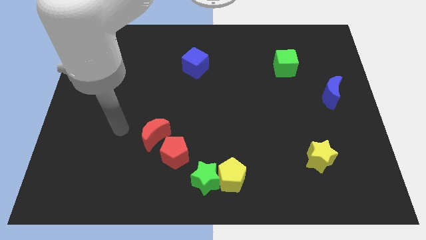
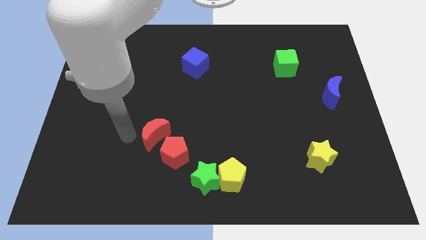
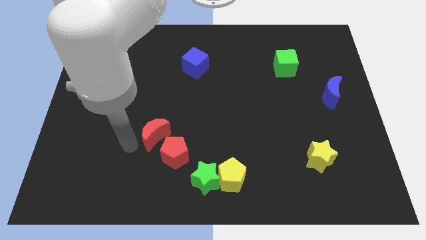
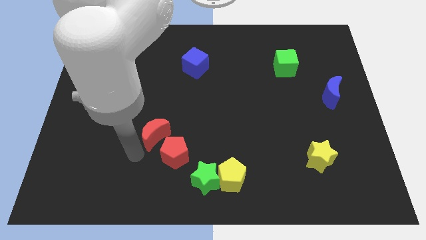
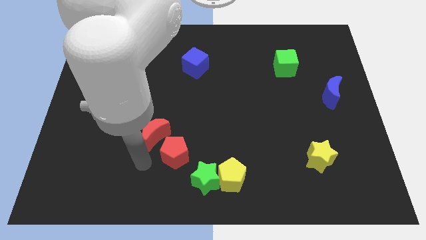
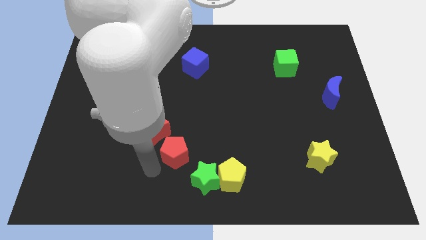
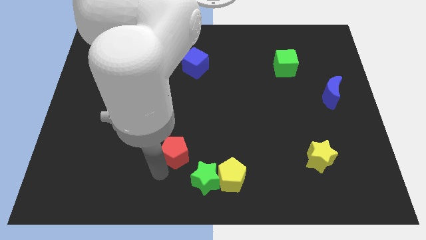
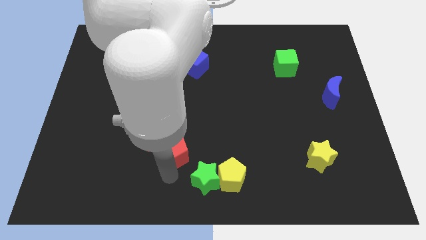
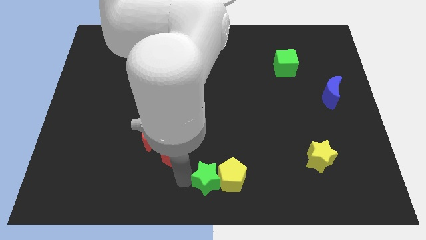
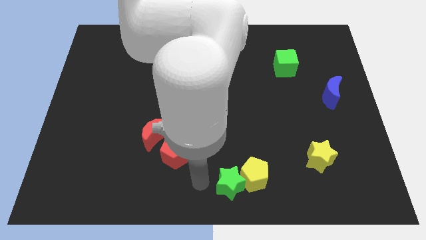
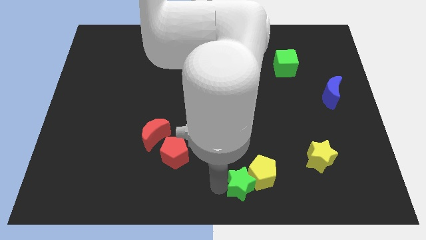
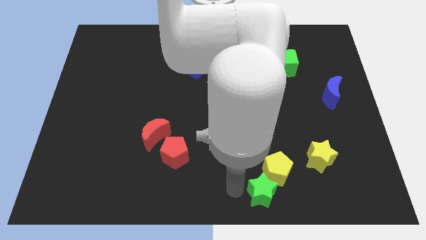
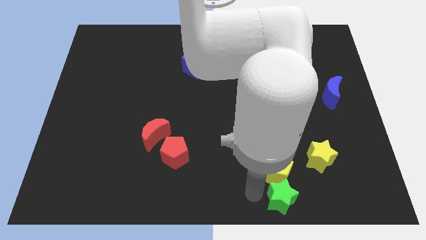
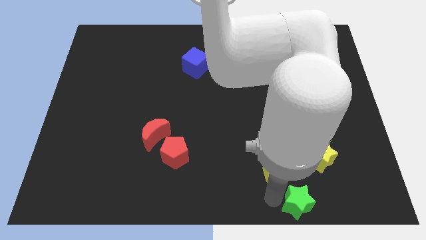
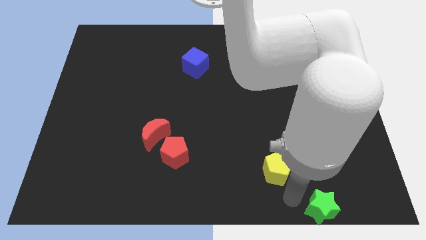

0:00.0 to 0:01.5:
pull the yellow pentagon apart from the green star

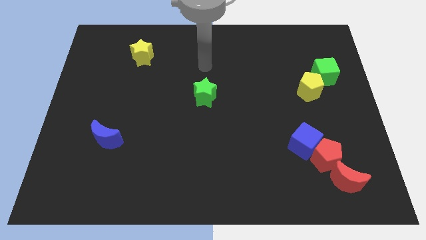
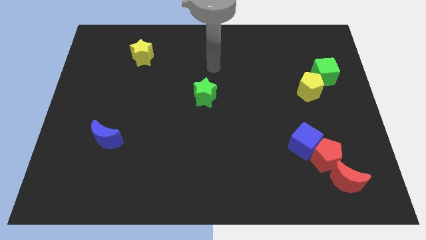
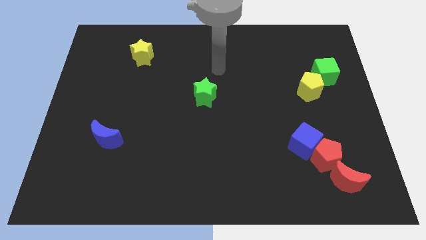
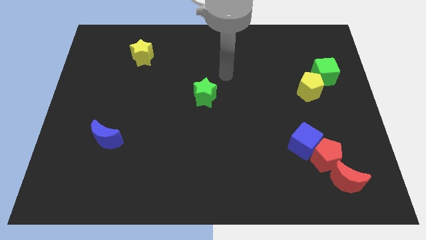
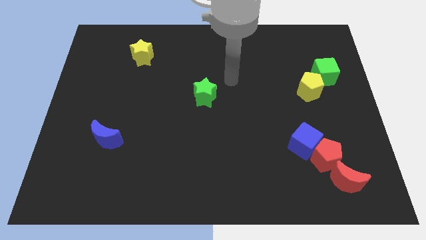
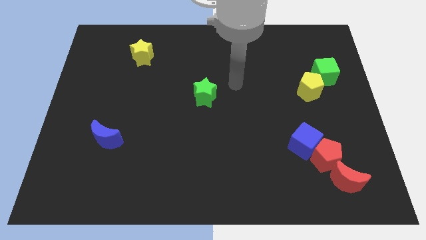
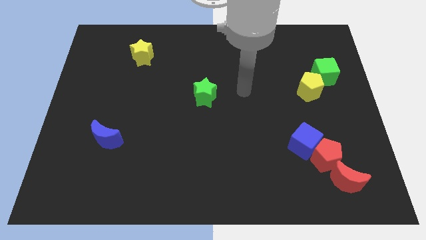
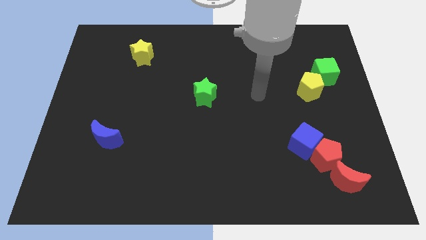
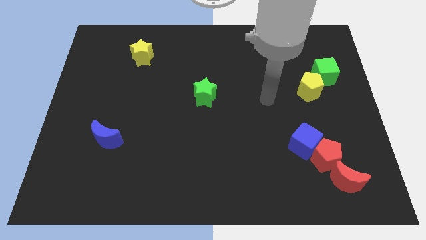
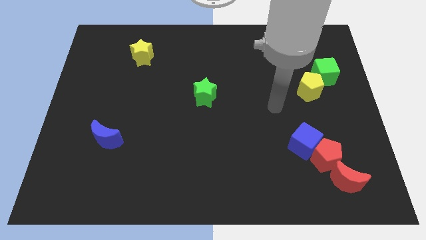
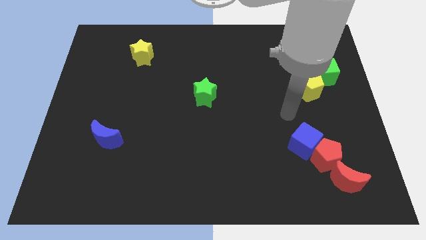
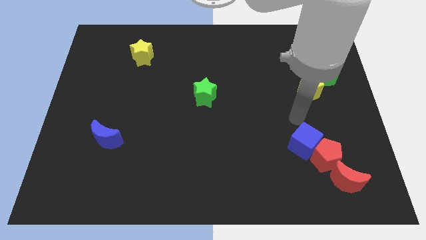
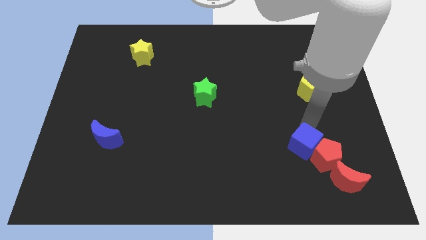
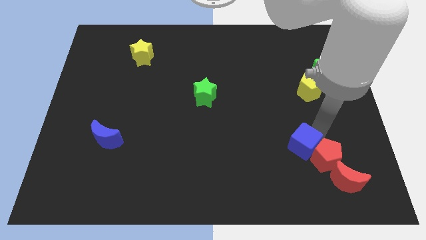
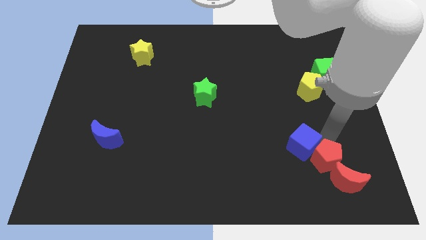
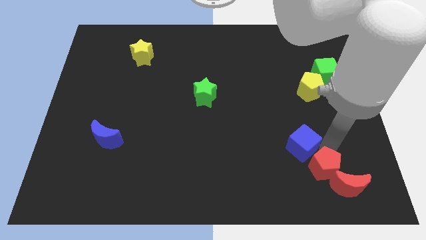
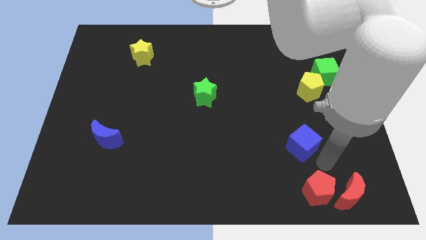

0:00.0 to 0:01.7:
separate the blue cube from the red pentagon

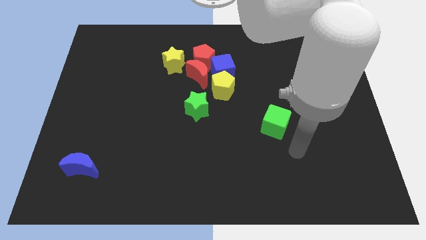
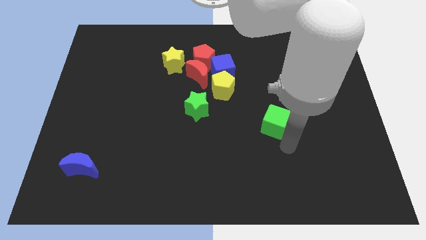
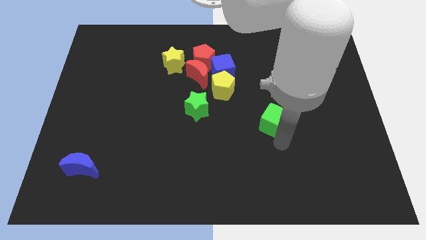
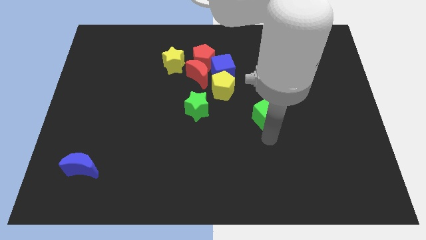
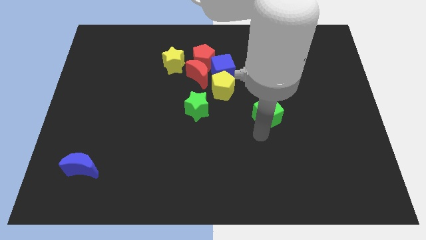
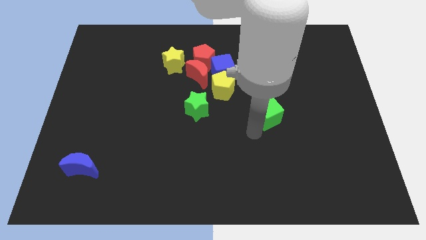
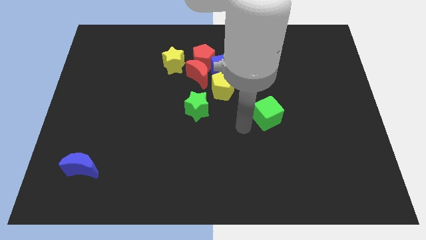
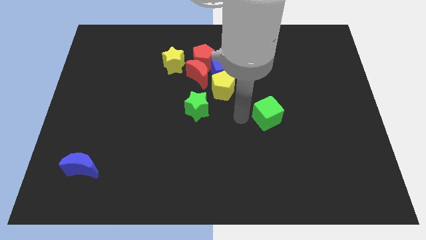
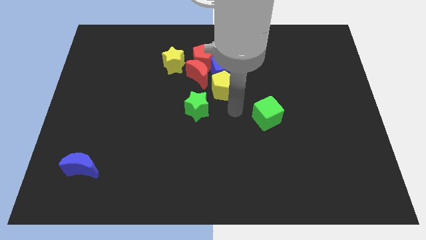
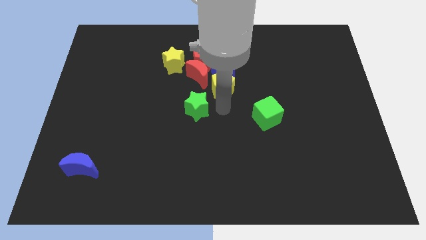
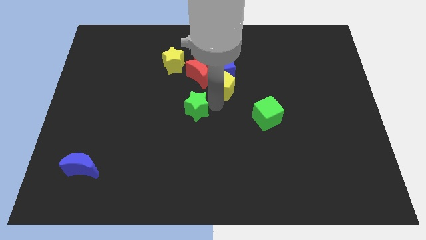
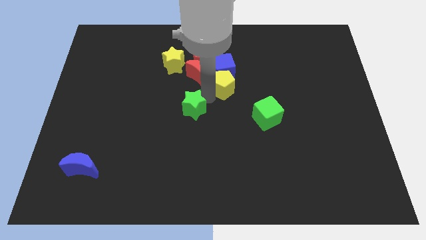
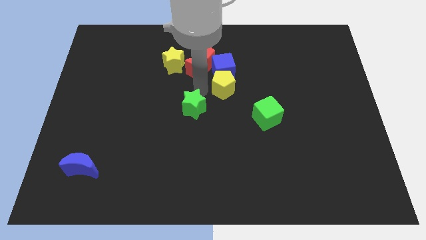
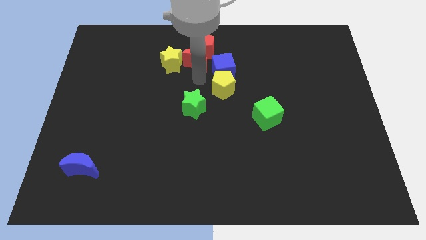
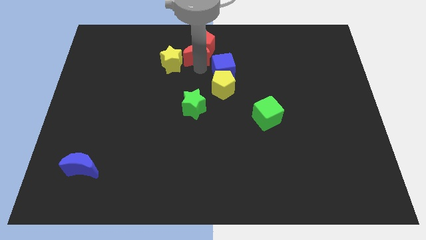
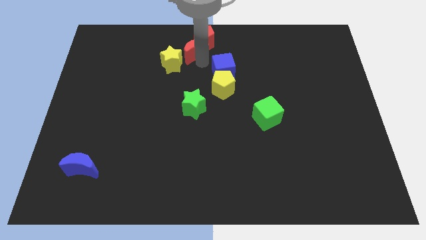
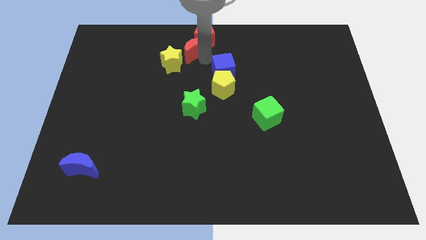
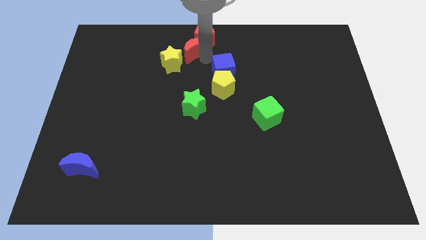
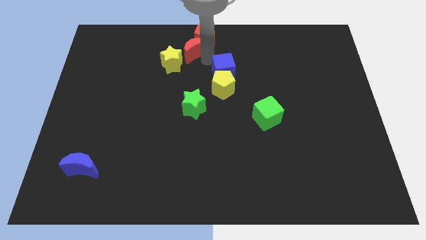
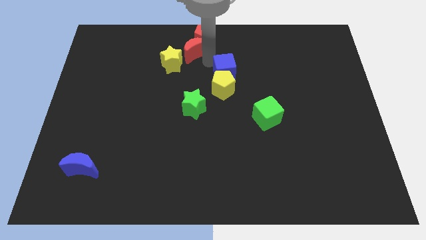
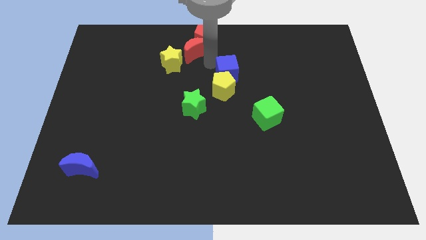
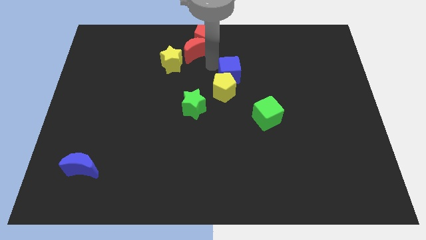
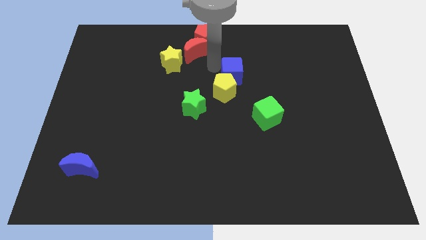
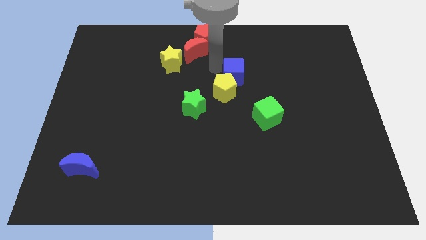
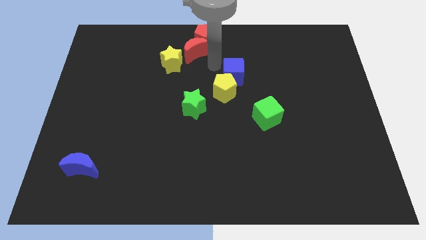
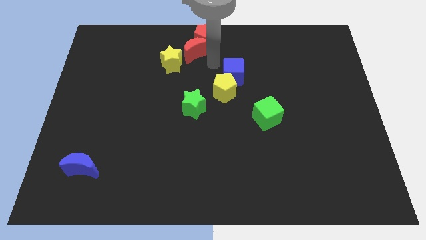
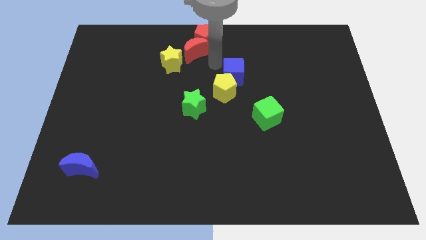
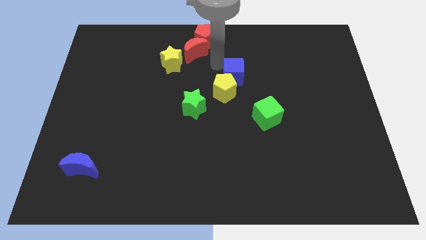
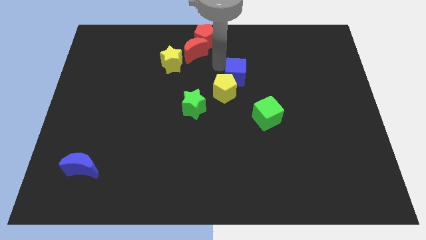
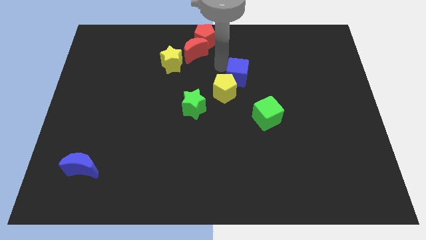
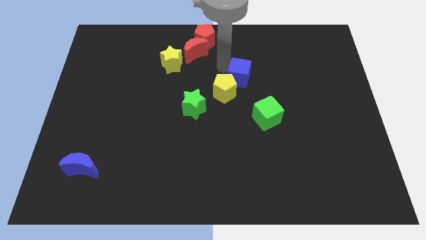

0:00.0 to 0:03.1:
pull the blue cube apart from the yellow pentagon, red moon, and red pentagon

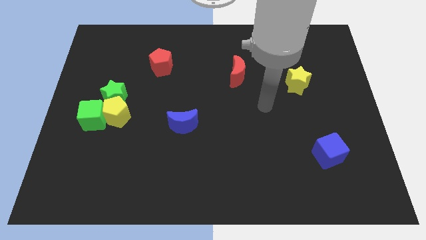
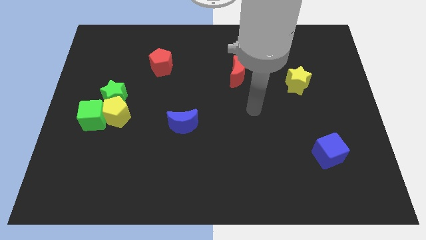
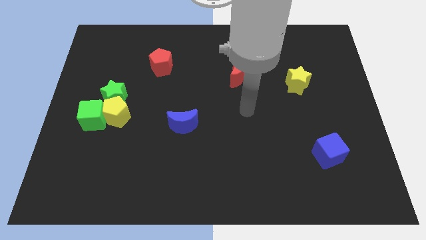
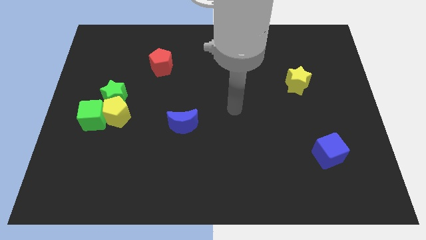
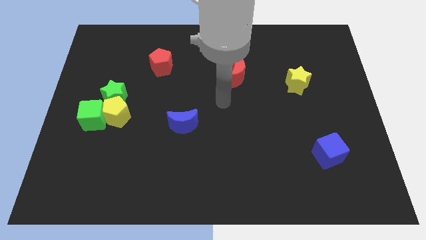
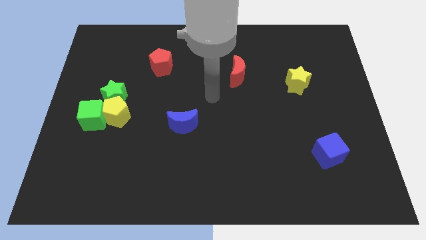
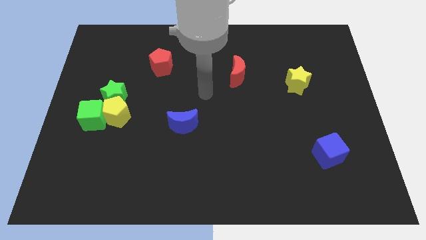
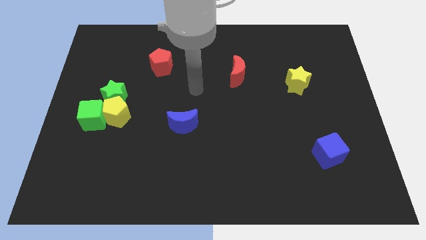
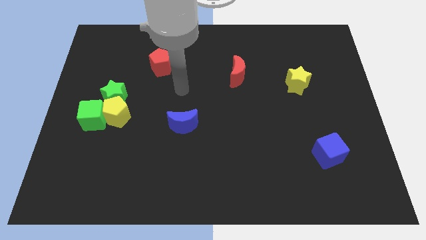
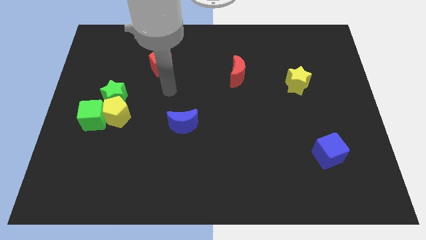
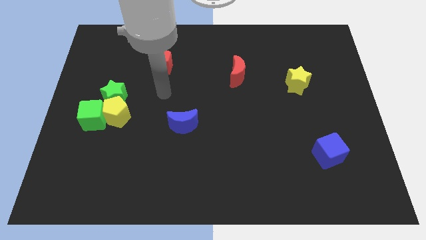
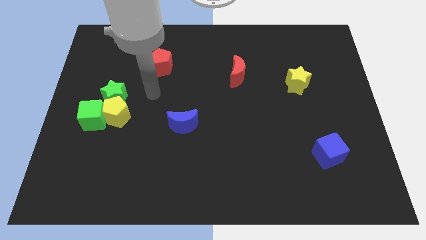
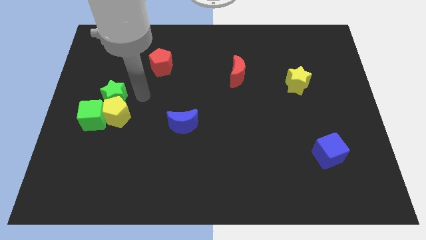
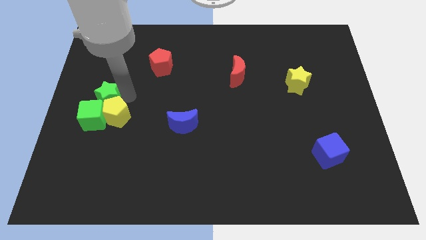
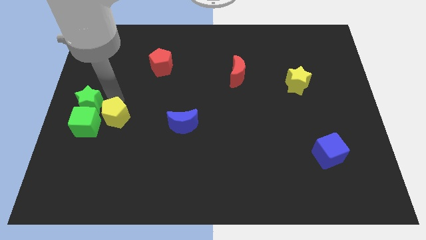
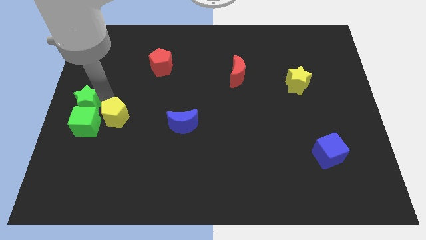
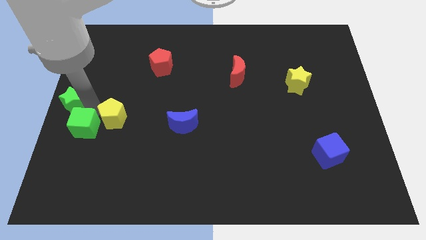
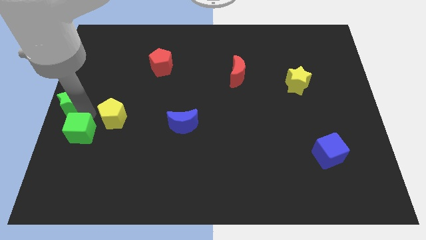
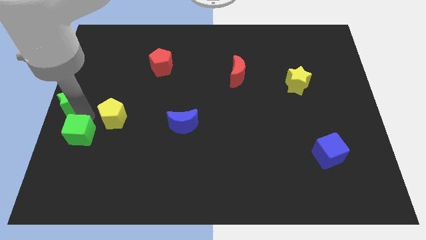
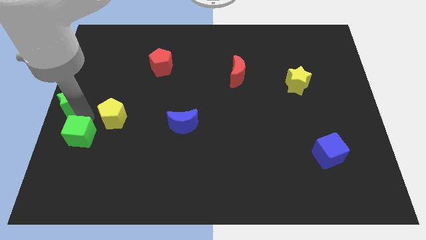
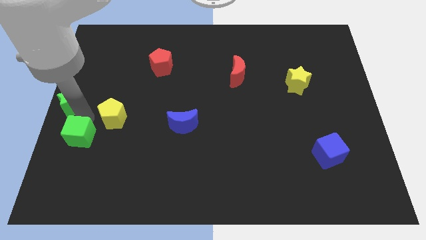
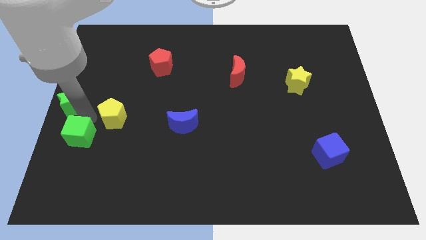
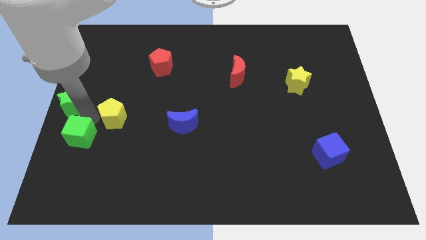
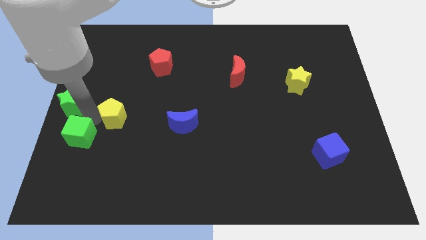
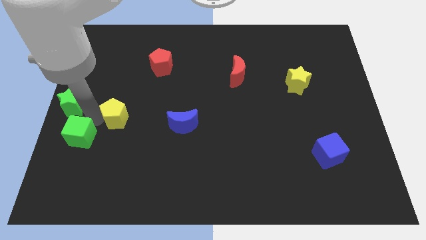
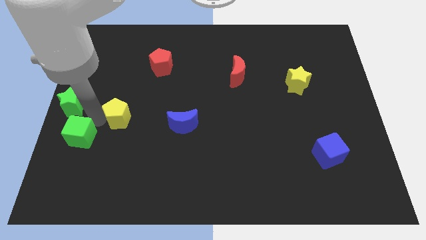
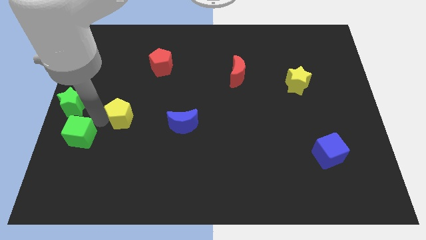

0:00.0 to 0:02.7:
separate the yellow pentagon from the green star and green cube

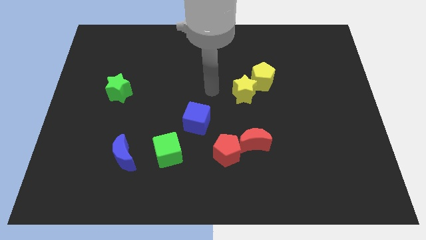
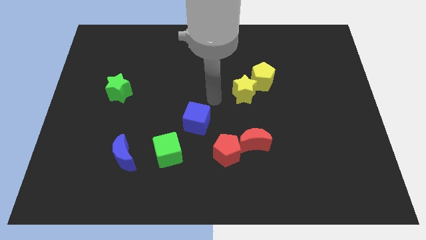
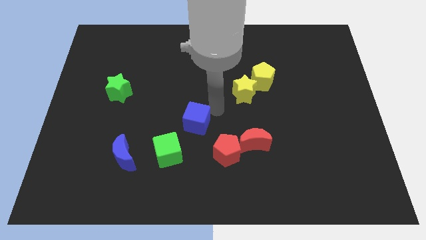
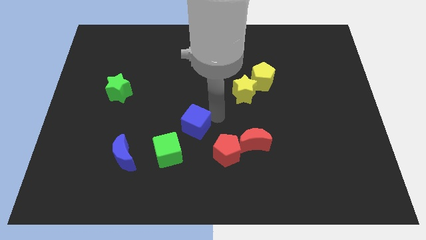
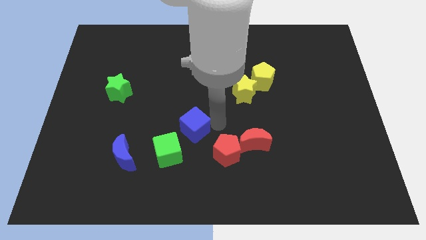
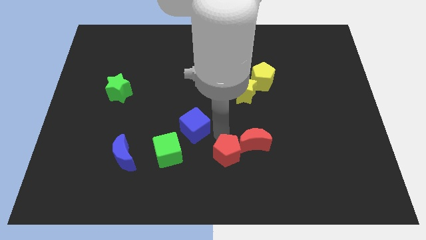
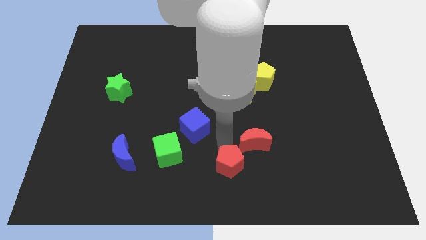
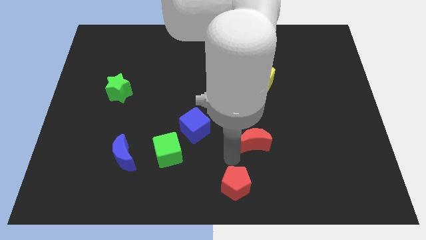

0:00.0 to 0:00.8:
pull the red moon apart from the red pentagon
